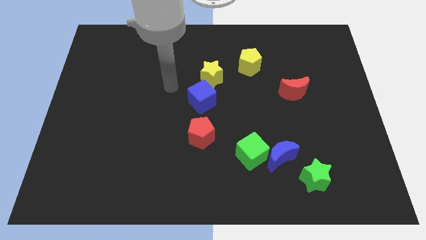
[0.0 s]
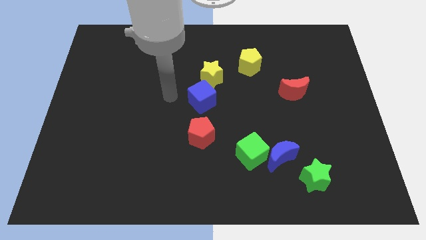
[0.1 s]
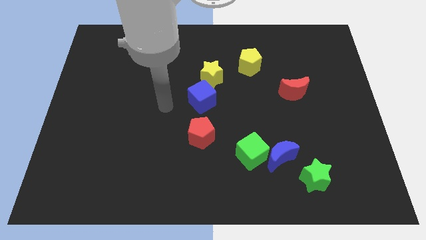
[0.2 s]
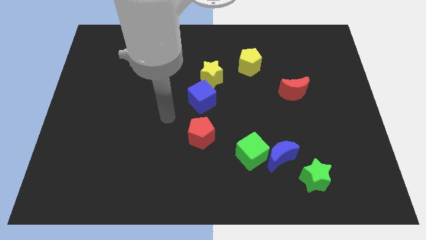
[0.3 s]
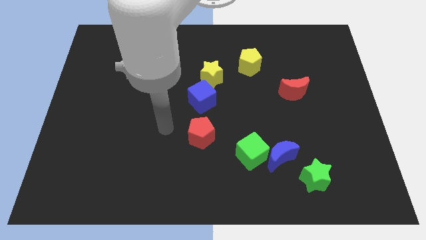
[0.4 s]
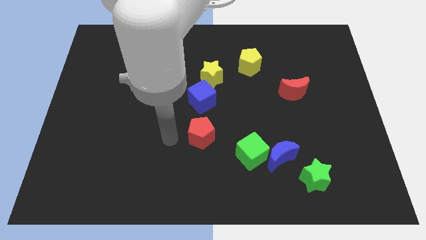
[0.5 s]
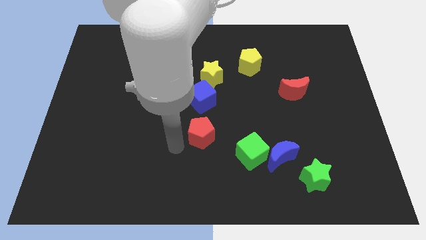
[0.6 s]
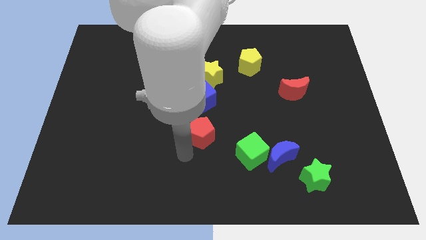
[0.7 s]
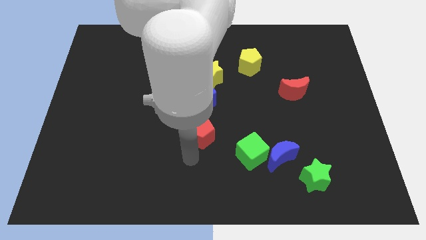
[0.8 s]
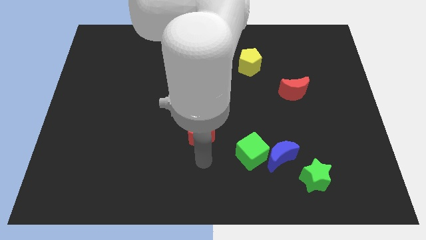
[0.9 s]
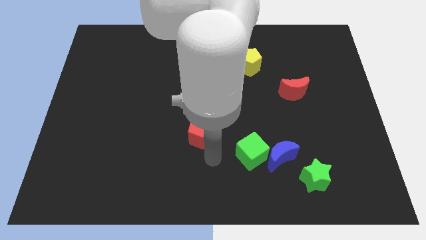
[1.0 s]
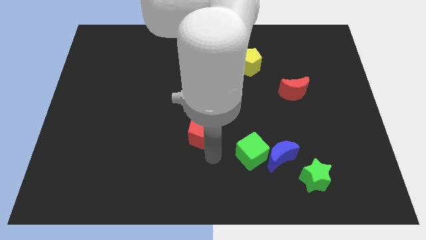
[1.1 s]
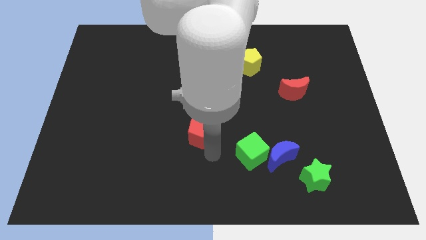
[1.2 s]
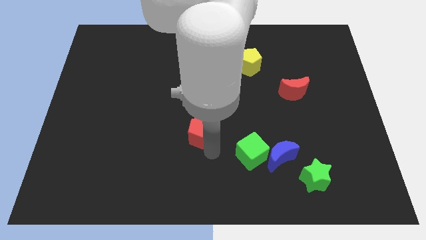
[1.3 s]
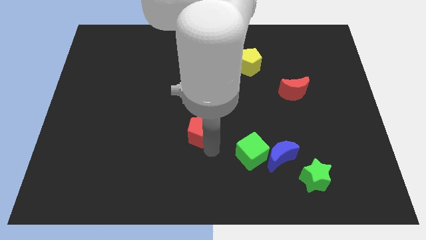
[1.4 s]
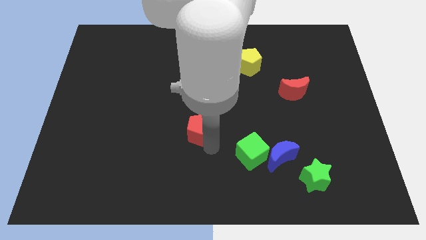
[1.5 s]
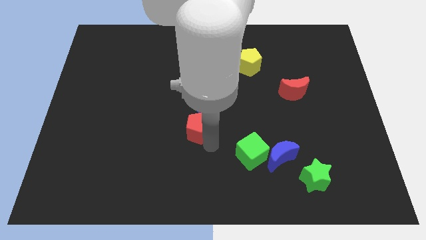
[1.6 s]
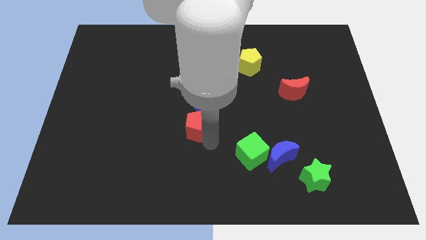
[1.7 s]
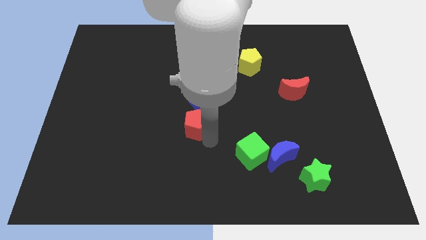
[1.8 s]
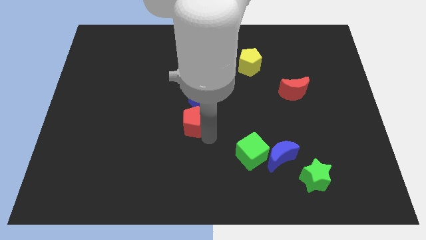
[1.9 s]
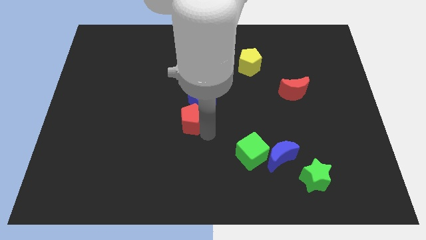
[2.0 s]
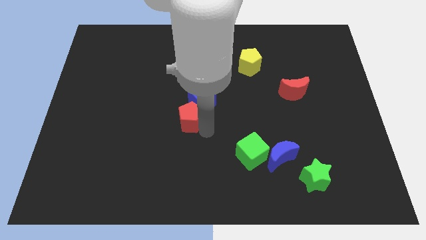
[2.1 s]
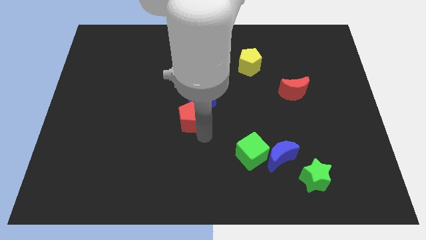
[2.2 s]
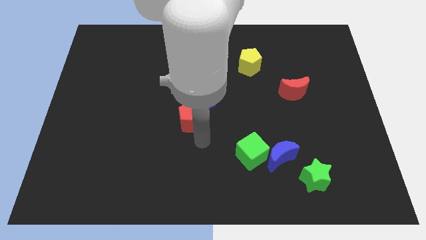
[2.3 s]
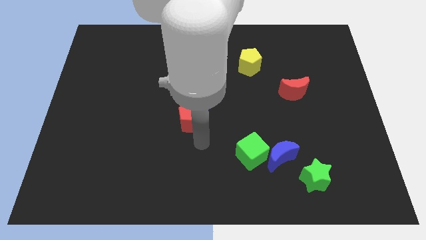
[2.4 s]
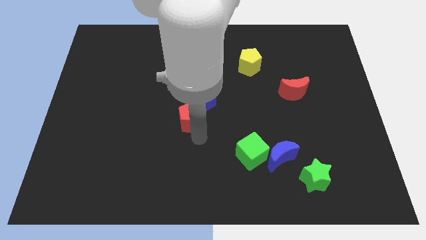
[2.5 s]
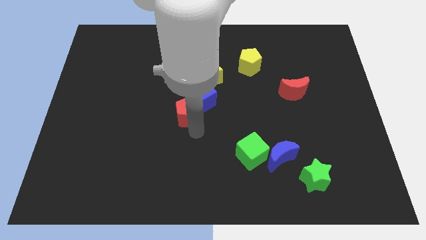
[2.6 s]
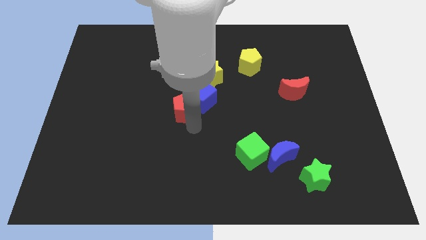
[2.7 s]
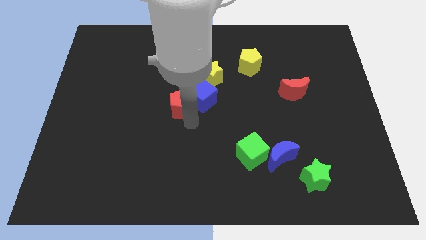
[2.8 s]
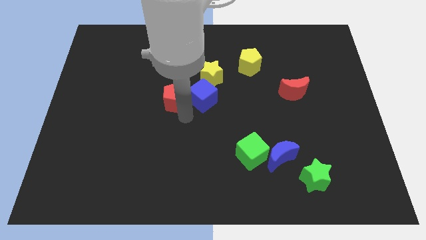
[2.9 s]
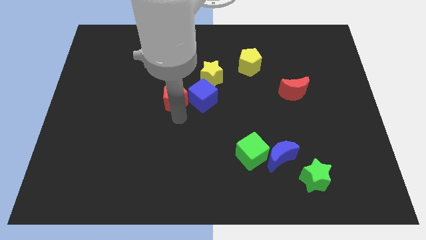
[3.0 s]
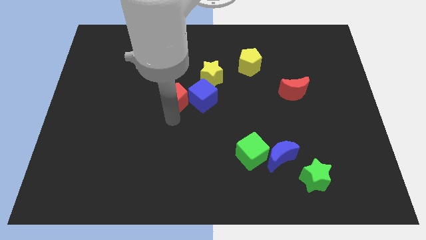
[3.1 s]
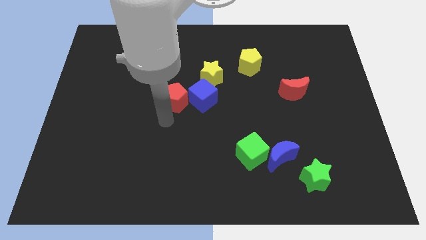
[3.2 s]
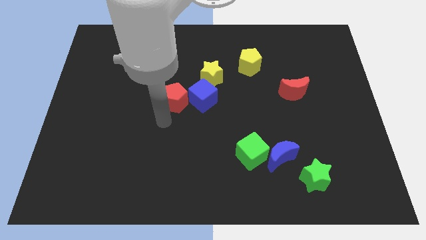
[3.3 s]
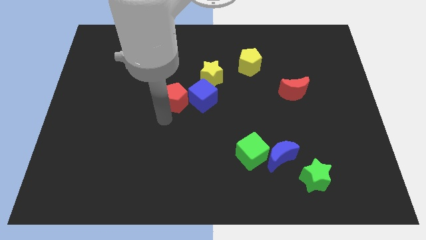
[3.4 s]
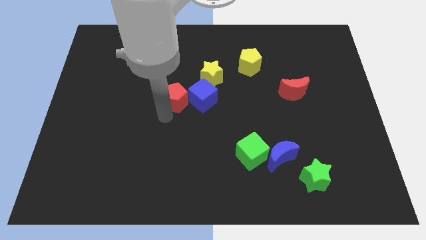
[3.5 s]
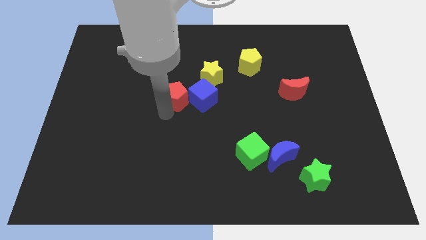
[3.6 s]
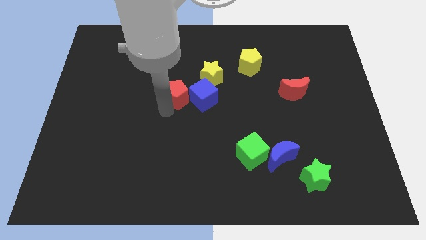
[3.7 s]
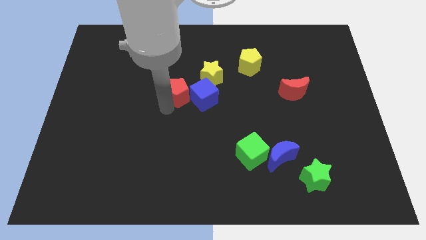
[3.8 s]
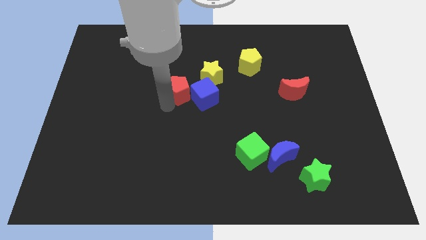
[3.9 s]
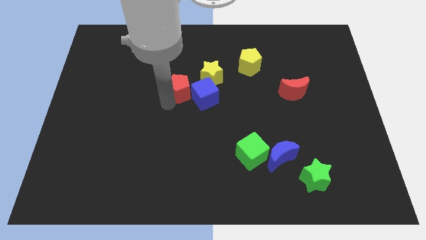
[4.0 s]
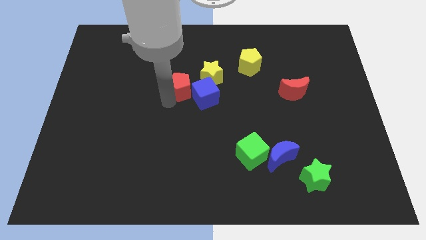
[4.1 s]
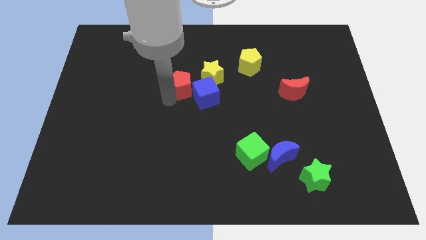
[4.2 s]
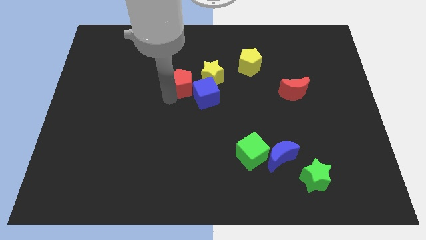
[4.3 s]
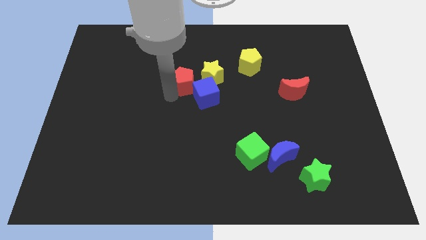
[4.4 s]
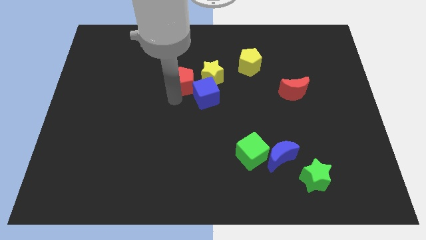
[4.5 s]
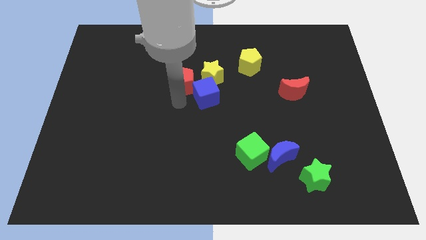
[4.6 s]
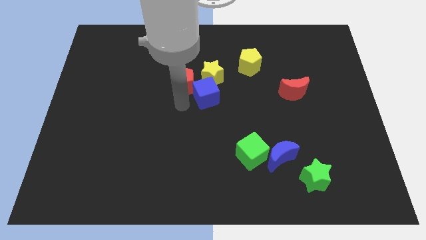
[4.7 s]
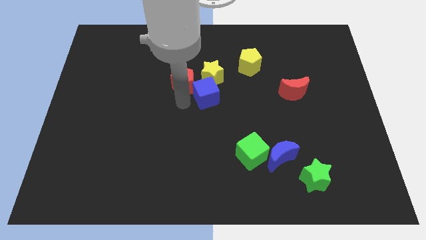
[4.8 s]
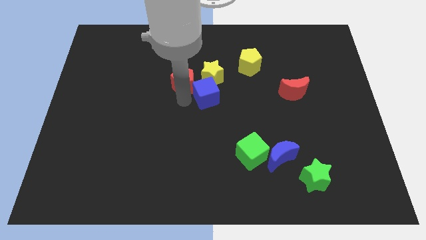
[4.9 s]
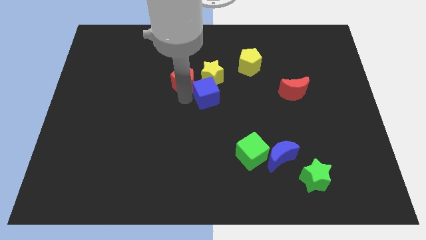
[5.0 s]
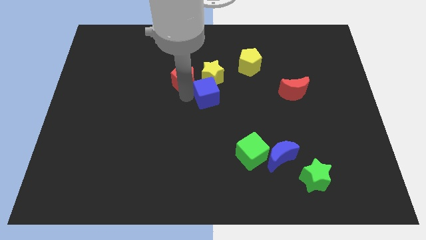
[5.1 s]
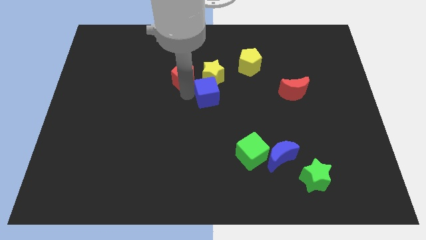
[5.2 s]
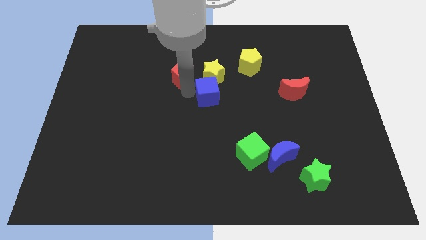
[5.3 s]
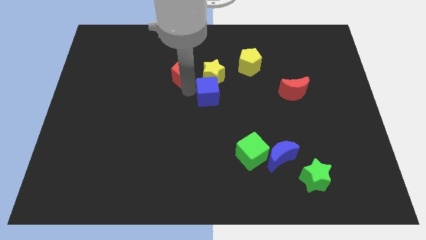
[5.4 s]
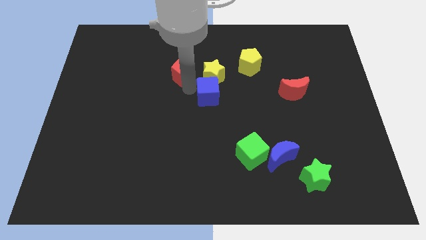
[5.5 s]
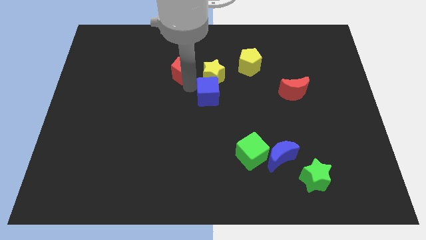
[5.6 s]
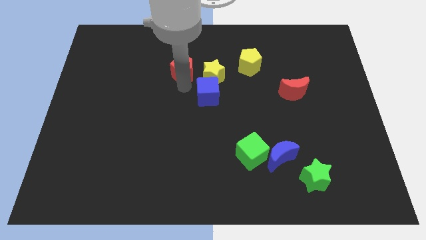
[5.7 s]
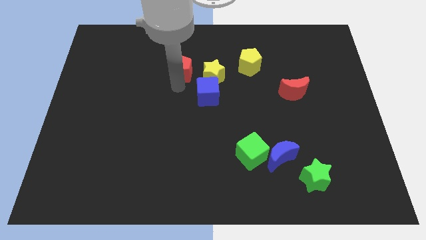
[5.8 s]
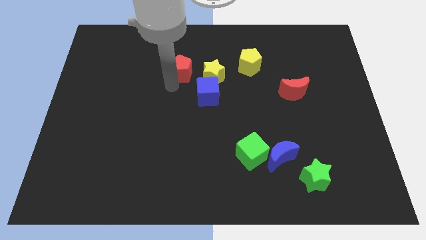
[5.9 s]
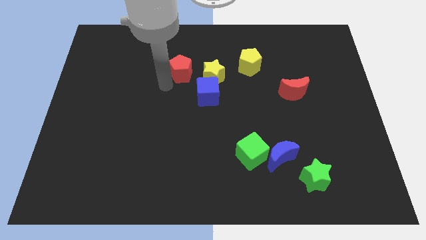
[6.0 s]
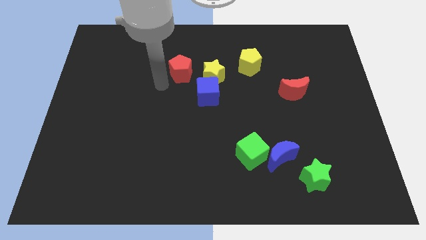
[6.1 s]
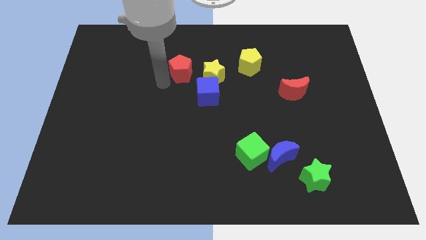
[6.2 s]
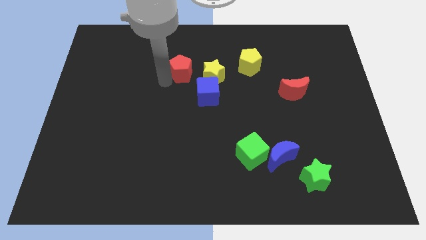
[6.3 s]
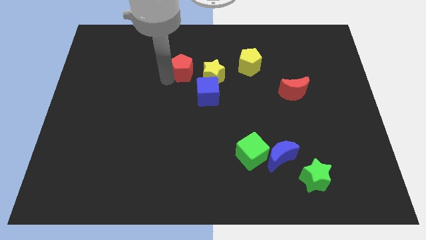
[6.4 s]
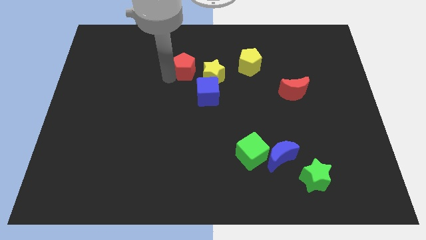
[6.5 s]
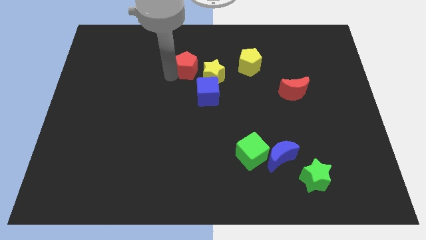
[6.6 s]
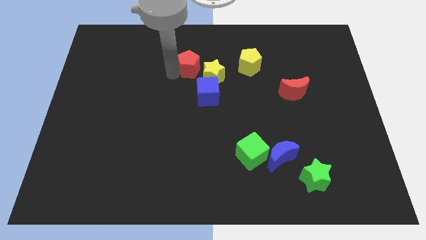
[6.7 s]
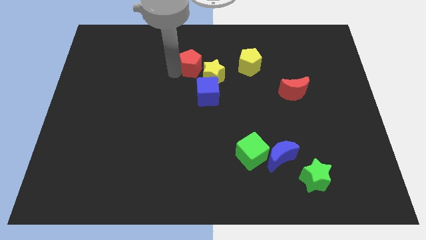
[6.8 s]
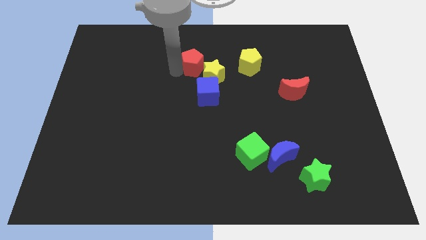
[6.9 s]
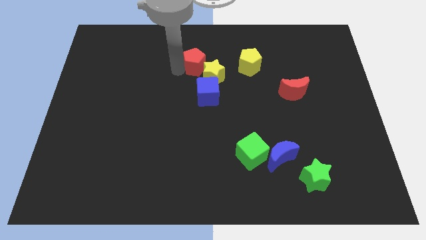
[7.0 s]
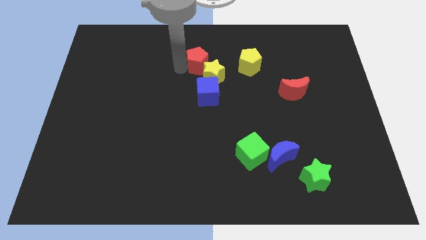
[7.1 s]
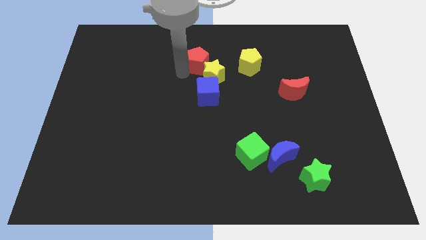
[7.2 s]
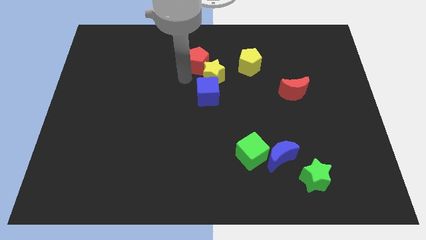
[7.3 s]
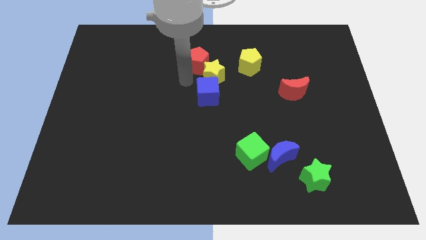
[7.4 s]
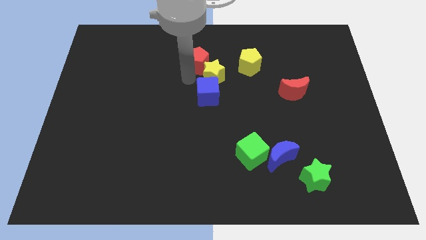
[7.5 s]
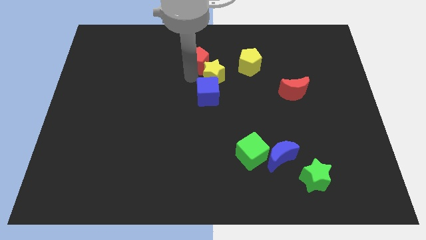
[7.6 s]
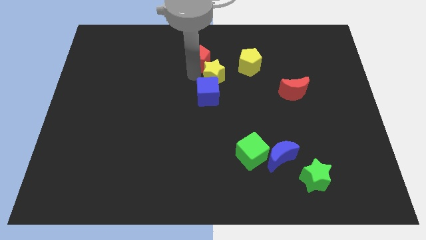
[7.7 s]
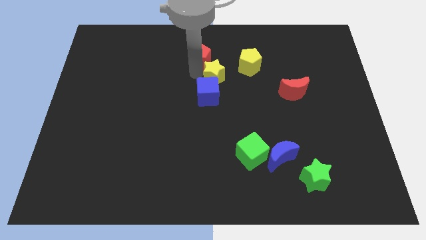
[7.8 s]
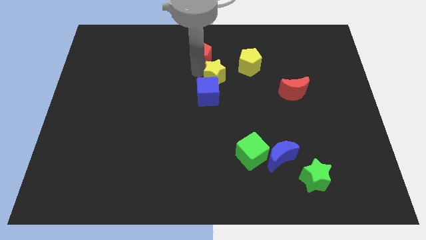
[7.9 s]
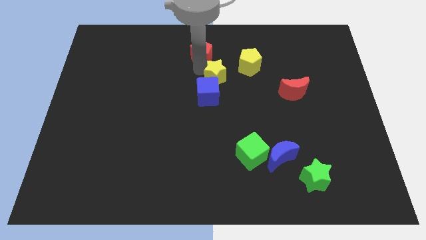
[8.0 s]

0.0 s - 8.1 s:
push the red pentagon to the towards your base
